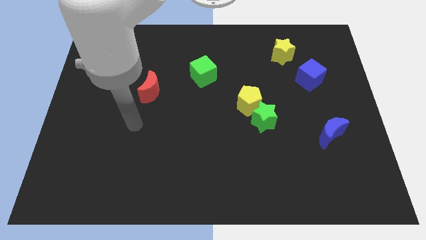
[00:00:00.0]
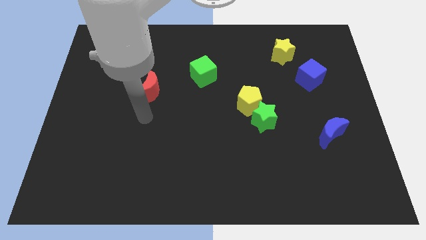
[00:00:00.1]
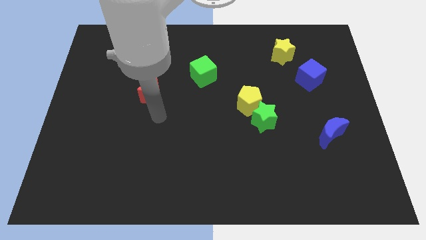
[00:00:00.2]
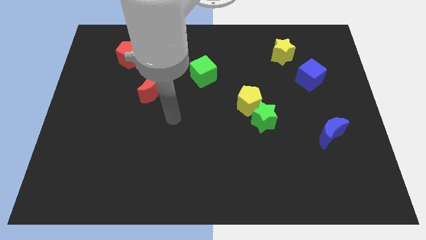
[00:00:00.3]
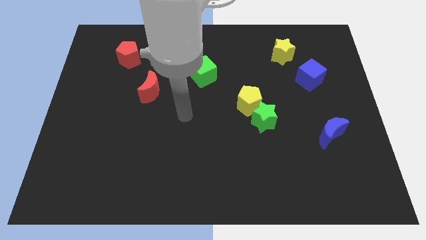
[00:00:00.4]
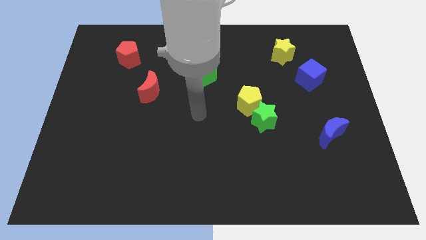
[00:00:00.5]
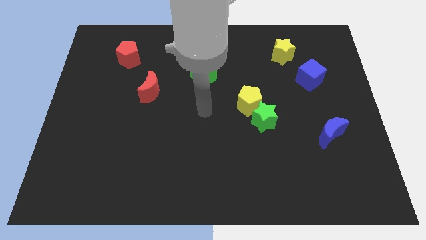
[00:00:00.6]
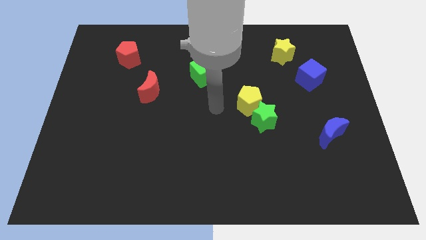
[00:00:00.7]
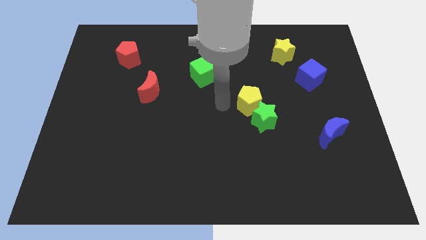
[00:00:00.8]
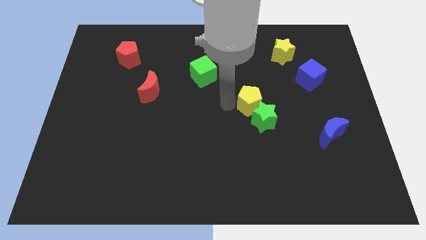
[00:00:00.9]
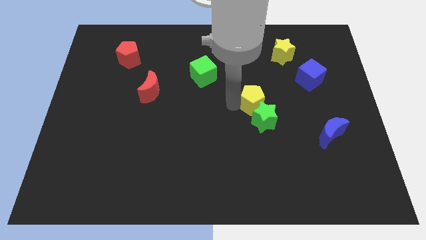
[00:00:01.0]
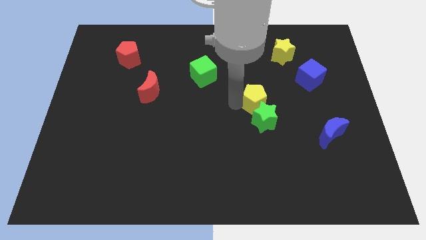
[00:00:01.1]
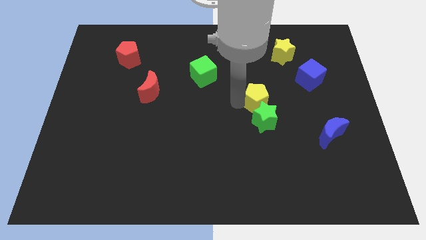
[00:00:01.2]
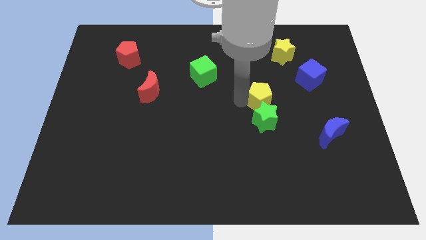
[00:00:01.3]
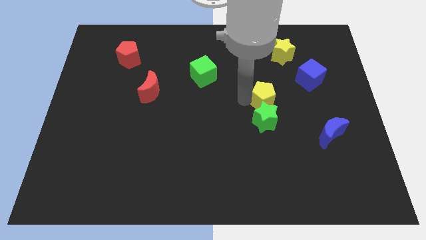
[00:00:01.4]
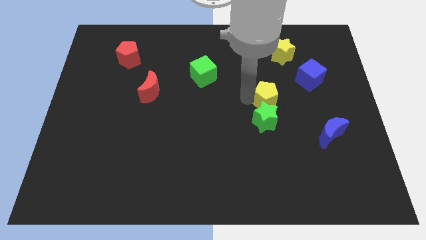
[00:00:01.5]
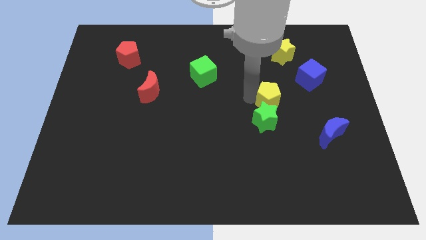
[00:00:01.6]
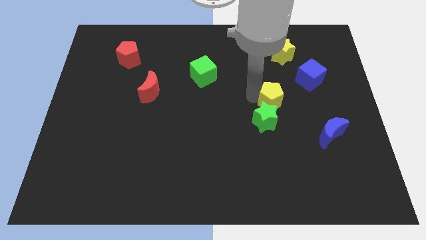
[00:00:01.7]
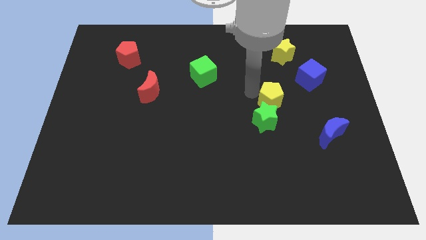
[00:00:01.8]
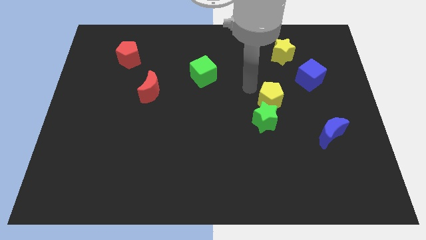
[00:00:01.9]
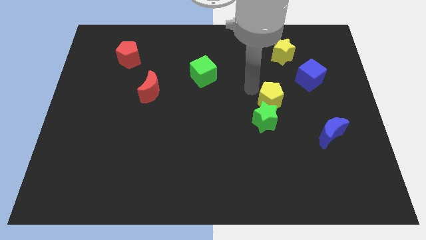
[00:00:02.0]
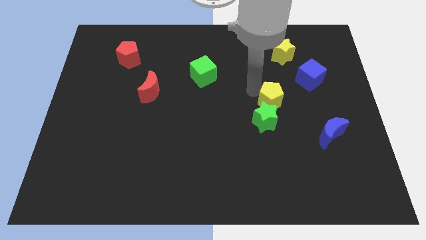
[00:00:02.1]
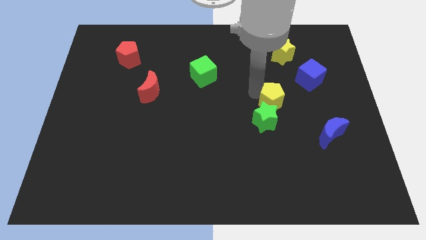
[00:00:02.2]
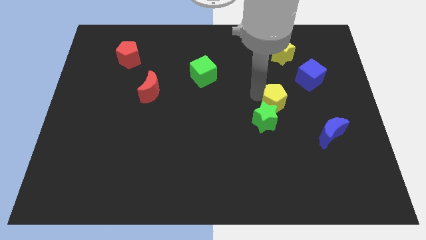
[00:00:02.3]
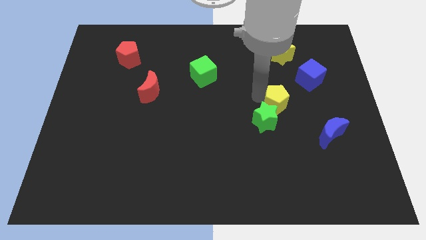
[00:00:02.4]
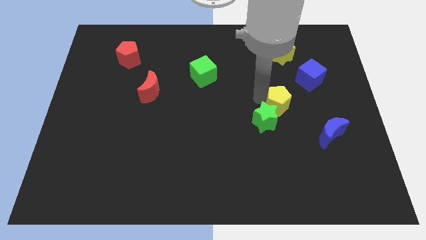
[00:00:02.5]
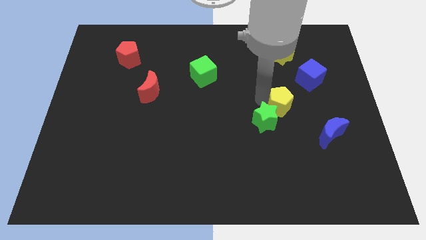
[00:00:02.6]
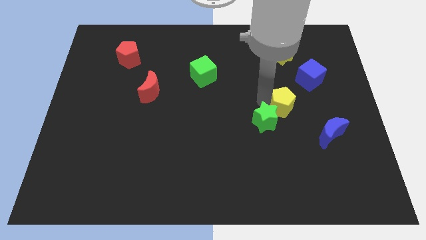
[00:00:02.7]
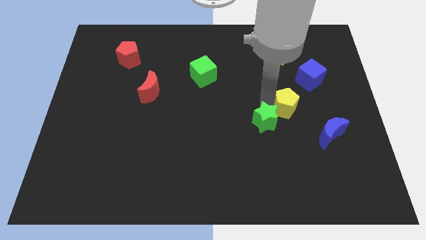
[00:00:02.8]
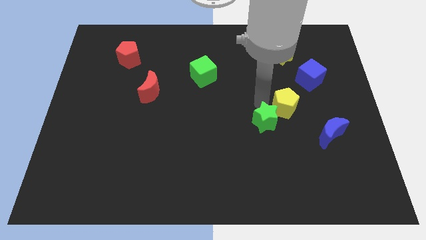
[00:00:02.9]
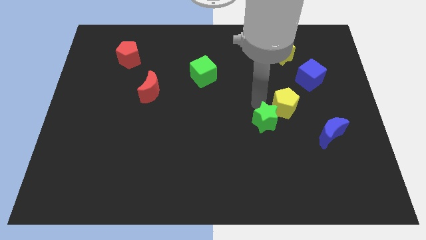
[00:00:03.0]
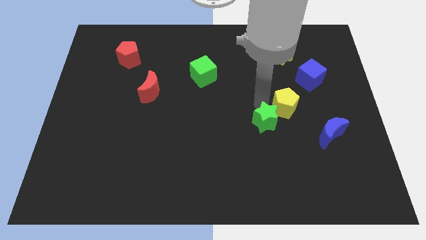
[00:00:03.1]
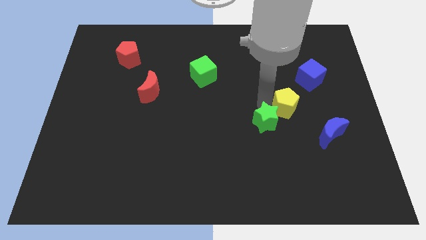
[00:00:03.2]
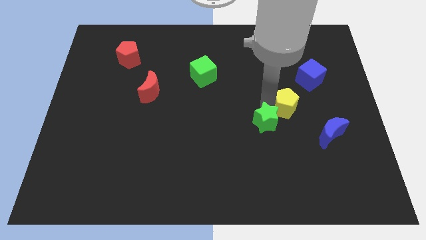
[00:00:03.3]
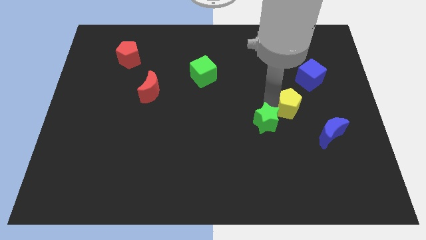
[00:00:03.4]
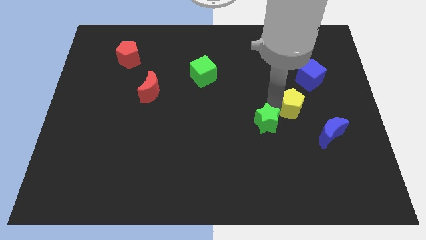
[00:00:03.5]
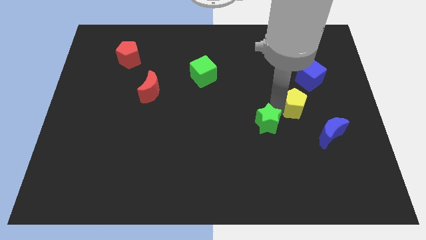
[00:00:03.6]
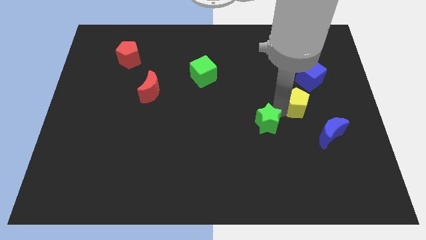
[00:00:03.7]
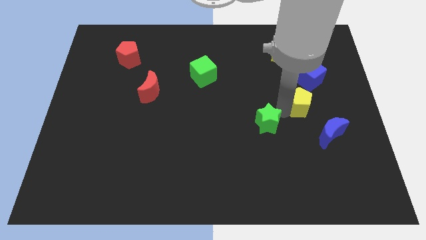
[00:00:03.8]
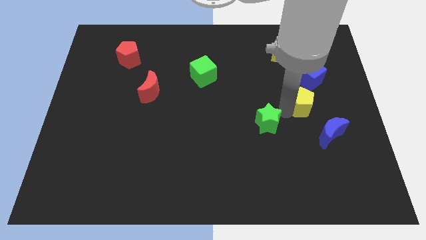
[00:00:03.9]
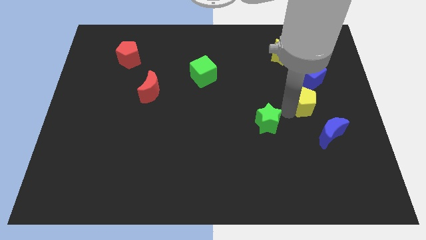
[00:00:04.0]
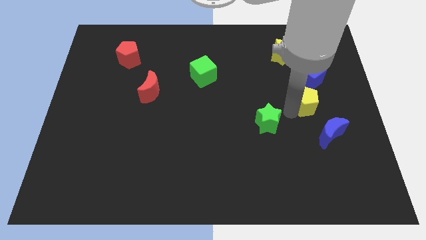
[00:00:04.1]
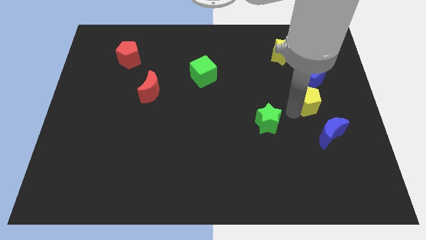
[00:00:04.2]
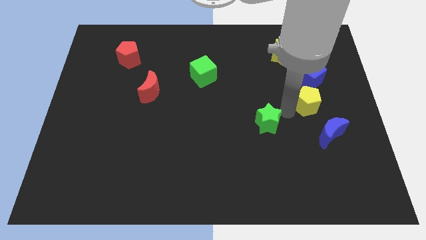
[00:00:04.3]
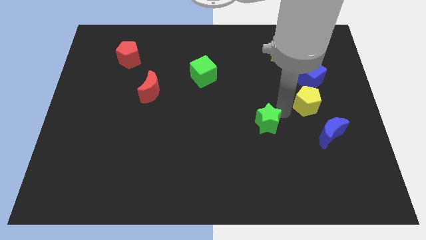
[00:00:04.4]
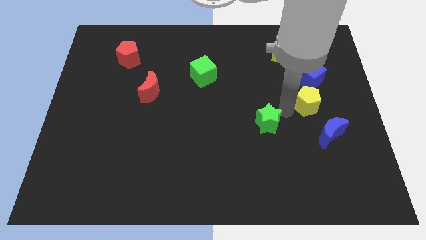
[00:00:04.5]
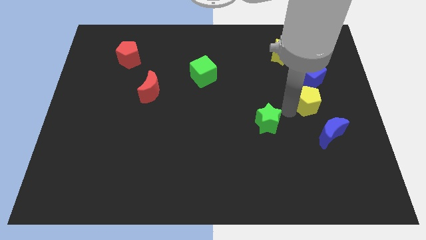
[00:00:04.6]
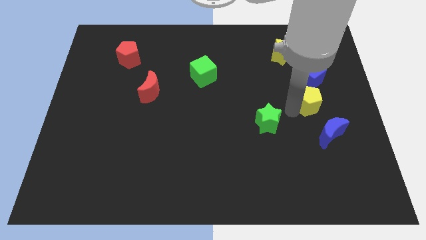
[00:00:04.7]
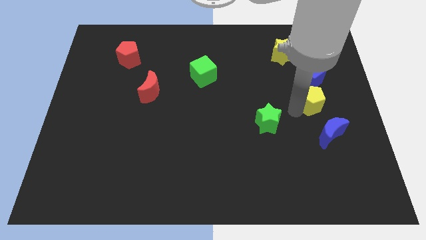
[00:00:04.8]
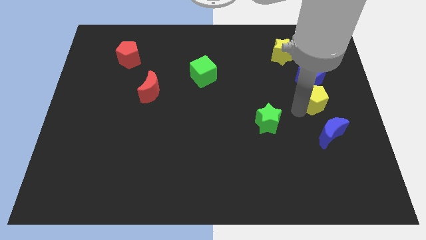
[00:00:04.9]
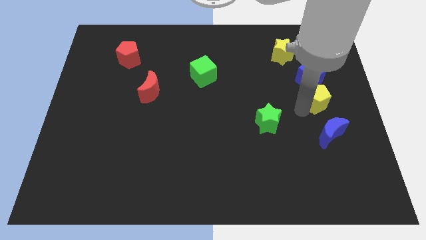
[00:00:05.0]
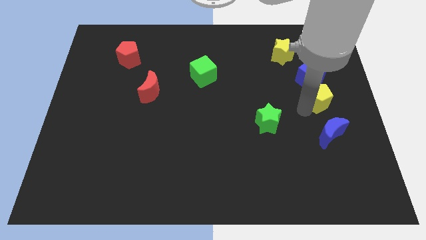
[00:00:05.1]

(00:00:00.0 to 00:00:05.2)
move the yellow pentagon to the right side of the board

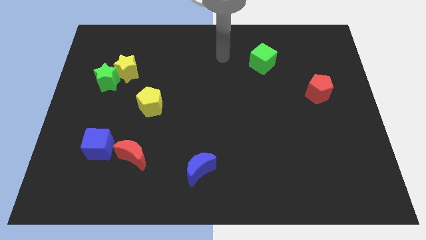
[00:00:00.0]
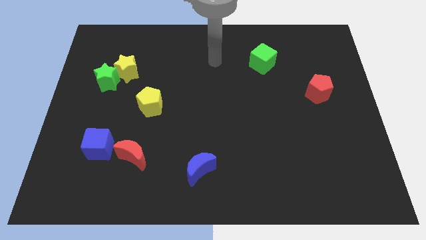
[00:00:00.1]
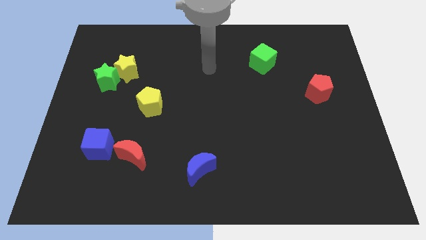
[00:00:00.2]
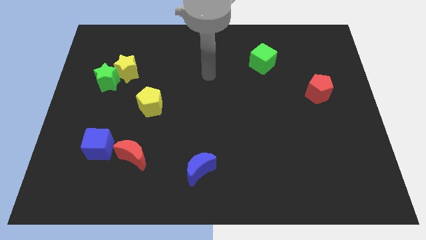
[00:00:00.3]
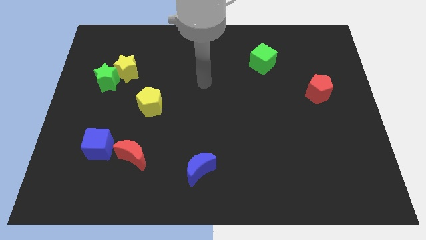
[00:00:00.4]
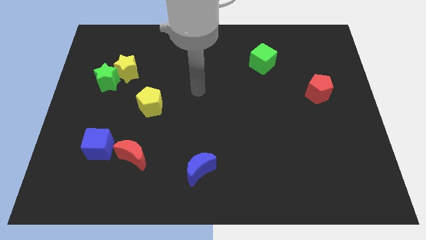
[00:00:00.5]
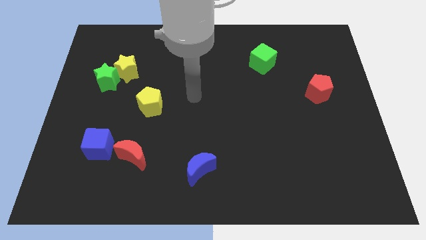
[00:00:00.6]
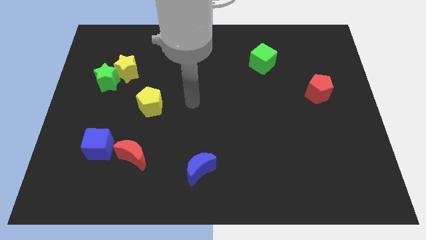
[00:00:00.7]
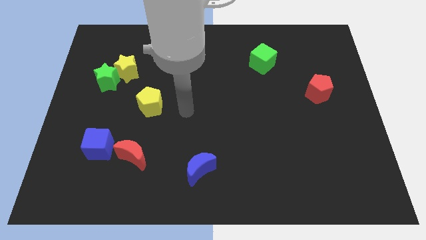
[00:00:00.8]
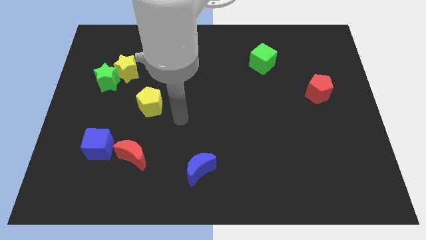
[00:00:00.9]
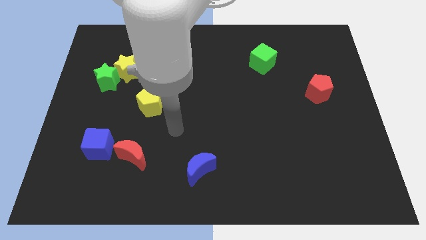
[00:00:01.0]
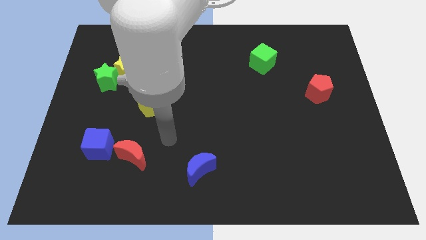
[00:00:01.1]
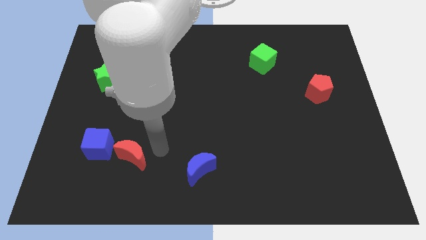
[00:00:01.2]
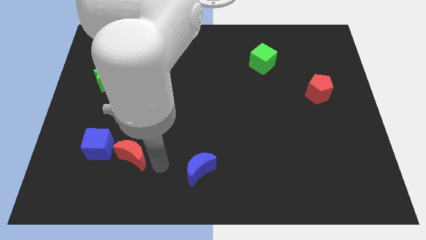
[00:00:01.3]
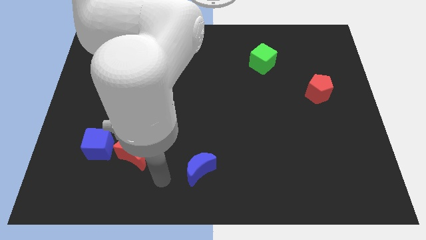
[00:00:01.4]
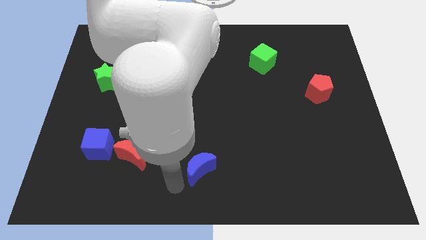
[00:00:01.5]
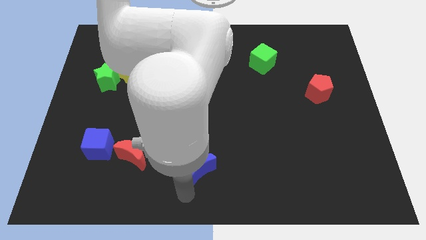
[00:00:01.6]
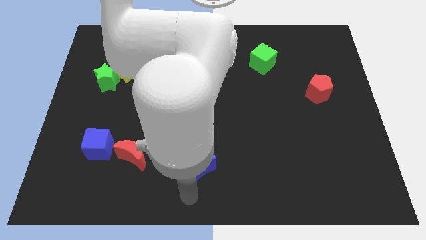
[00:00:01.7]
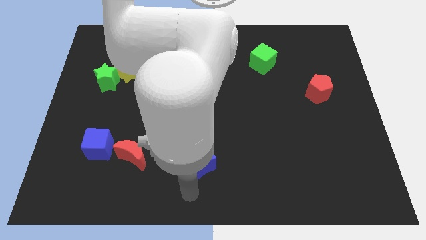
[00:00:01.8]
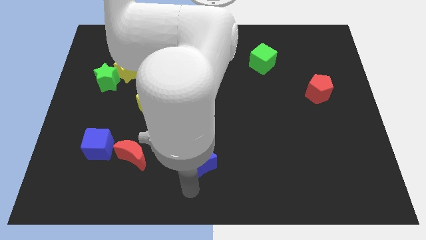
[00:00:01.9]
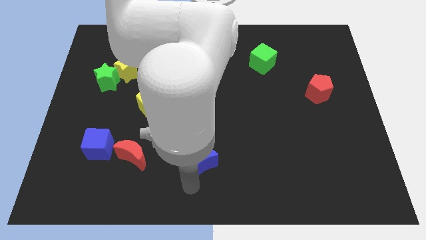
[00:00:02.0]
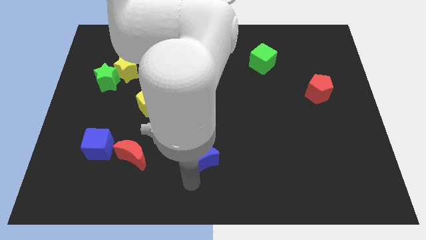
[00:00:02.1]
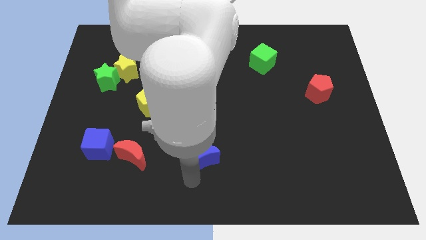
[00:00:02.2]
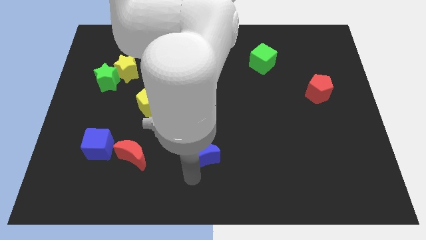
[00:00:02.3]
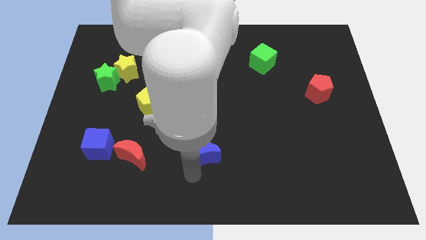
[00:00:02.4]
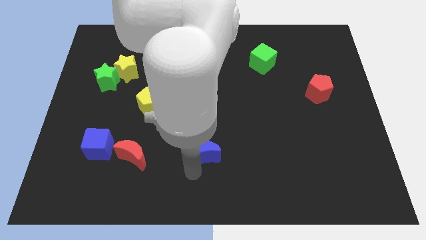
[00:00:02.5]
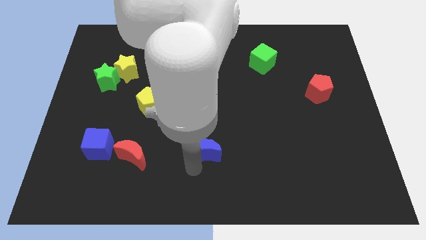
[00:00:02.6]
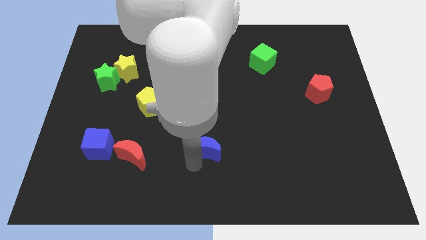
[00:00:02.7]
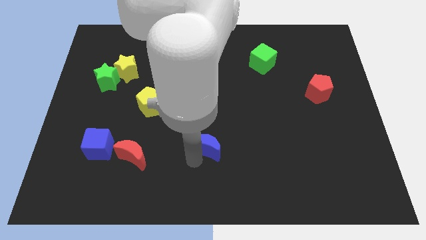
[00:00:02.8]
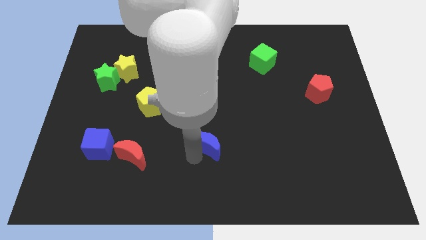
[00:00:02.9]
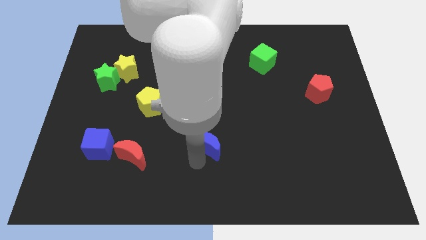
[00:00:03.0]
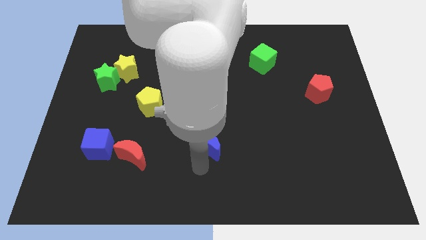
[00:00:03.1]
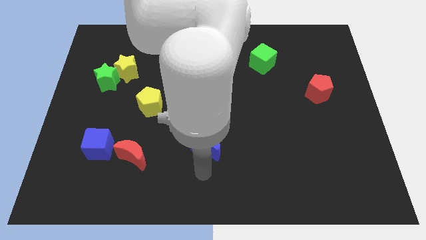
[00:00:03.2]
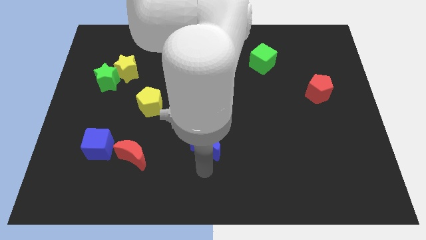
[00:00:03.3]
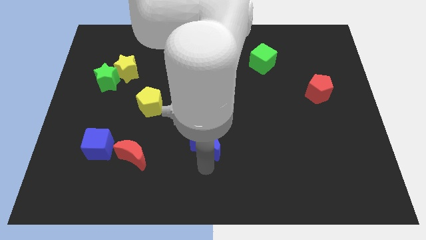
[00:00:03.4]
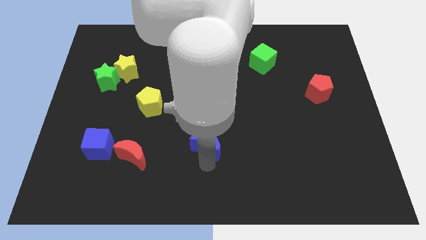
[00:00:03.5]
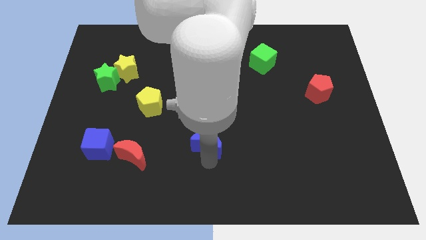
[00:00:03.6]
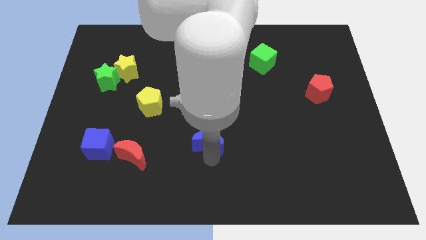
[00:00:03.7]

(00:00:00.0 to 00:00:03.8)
move the blue moon to the center of the board
